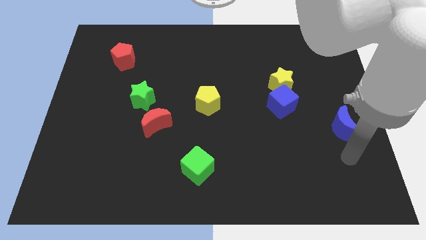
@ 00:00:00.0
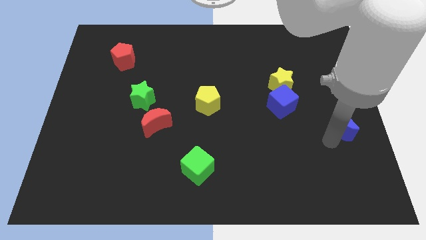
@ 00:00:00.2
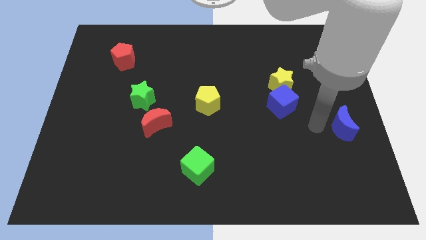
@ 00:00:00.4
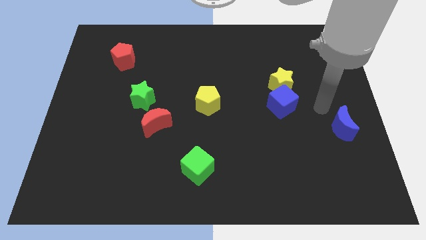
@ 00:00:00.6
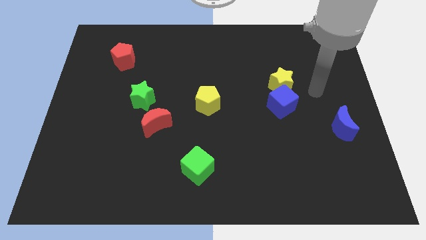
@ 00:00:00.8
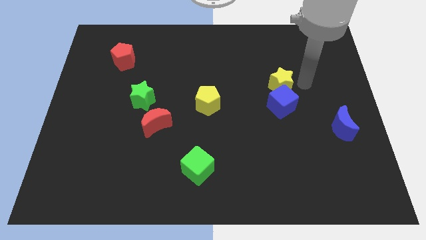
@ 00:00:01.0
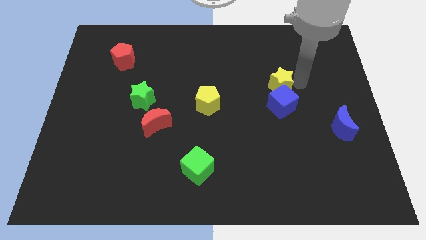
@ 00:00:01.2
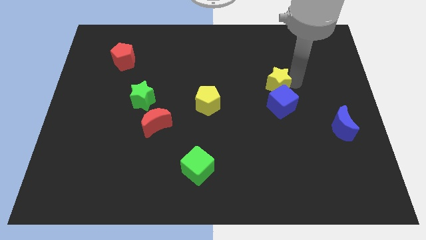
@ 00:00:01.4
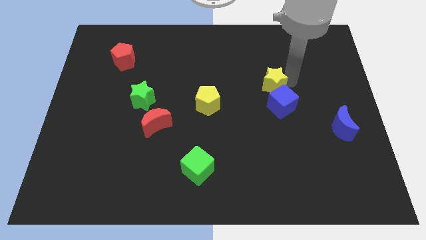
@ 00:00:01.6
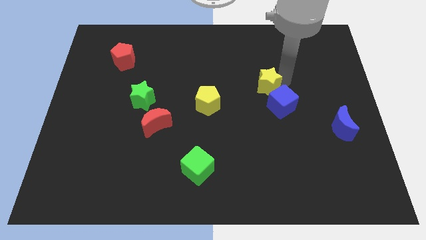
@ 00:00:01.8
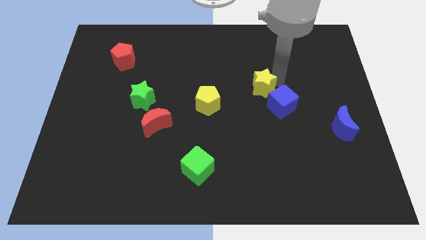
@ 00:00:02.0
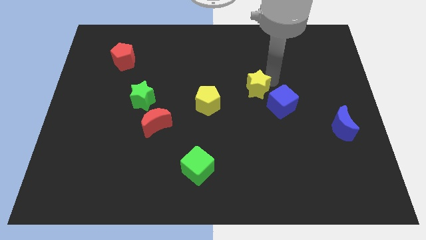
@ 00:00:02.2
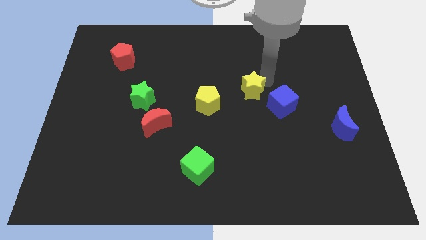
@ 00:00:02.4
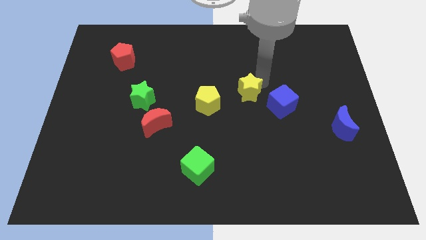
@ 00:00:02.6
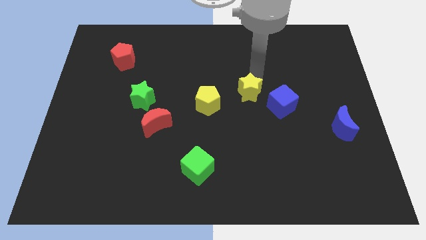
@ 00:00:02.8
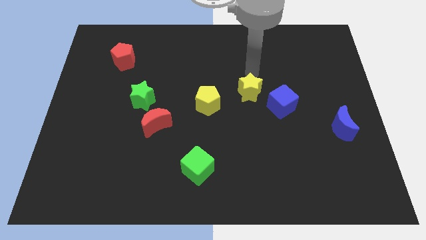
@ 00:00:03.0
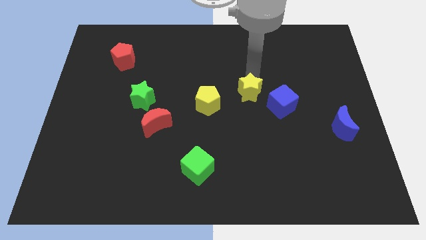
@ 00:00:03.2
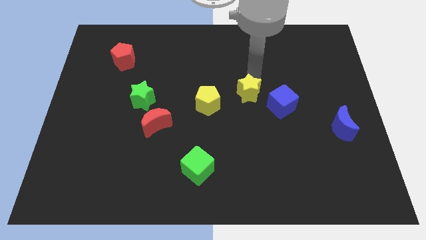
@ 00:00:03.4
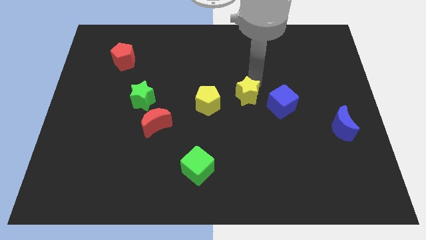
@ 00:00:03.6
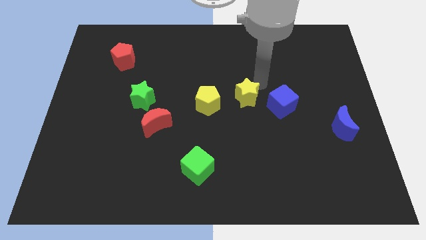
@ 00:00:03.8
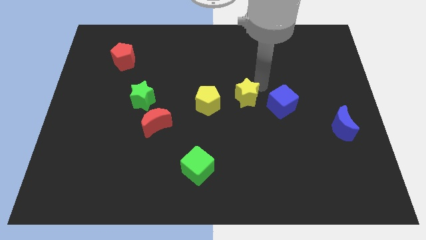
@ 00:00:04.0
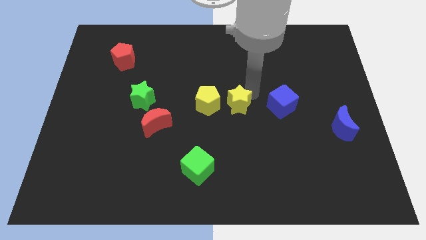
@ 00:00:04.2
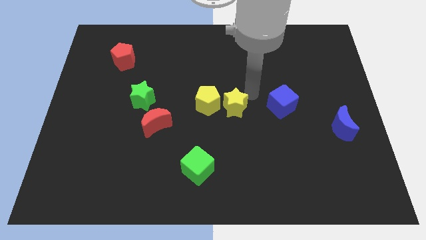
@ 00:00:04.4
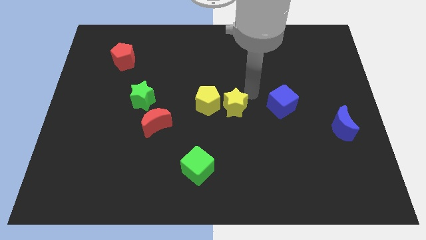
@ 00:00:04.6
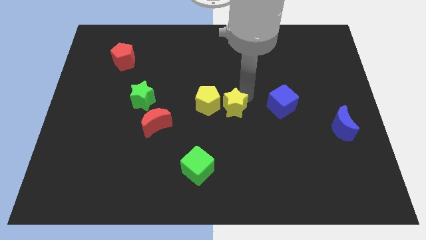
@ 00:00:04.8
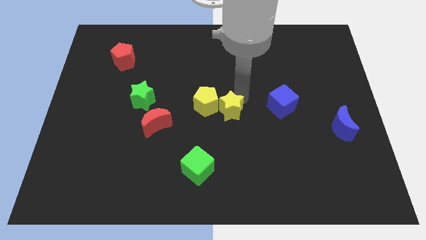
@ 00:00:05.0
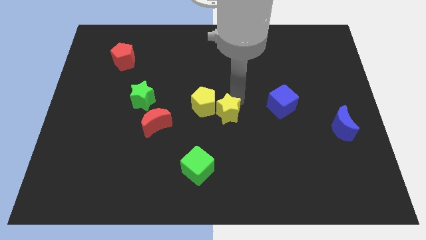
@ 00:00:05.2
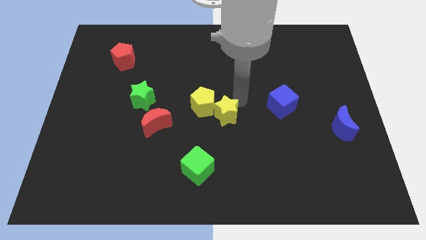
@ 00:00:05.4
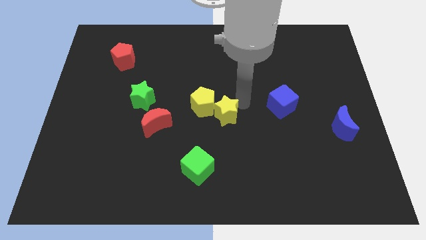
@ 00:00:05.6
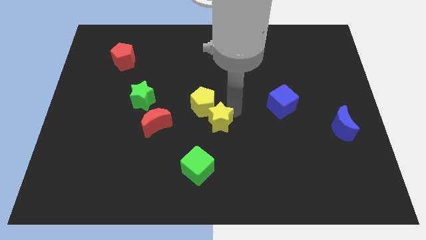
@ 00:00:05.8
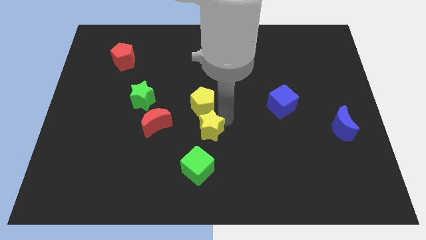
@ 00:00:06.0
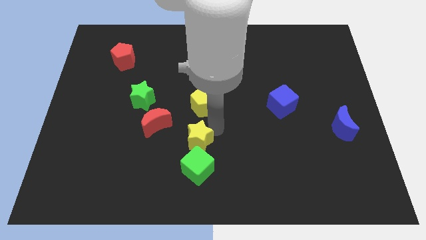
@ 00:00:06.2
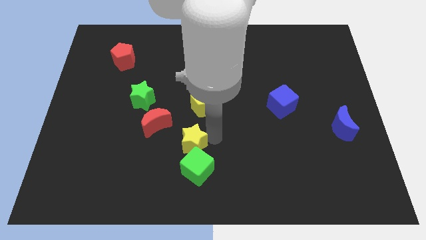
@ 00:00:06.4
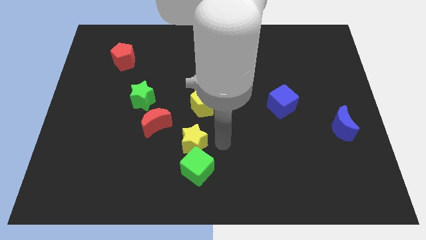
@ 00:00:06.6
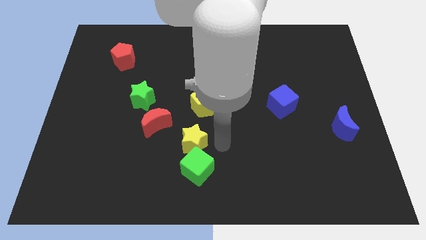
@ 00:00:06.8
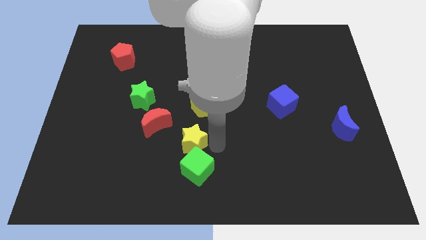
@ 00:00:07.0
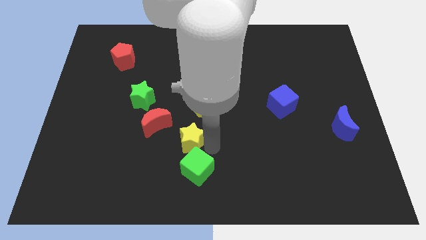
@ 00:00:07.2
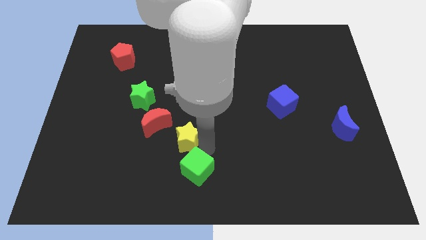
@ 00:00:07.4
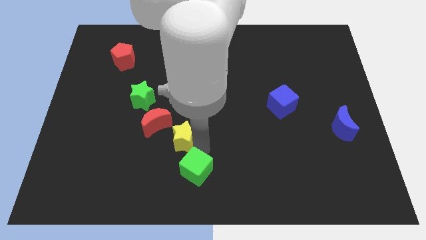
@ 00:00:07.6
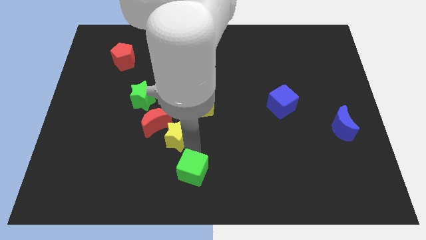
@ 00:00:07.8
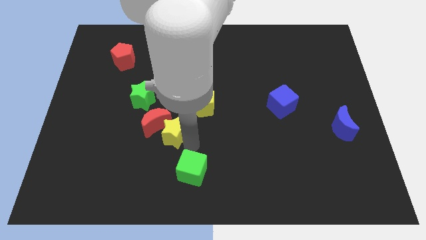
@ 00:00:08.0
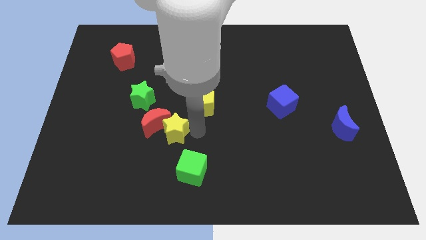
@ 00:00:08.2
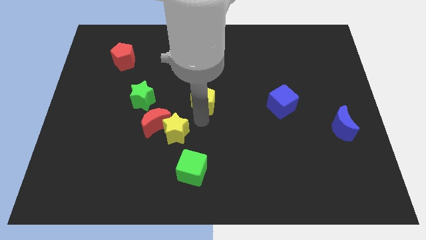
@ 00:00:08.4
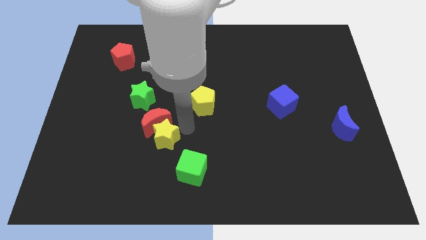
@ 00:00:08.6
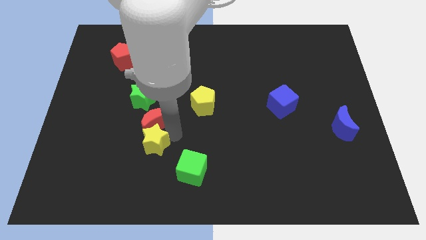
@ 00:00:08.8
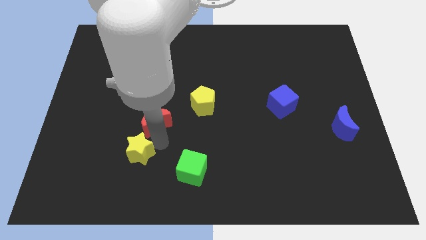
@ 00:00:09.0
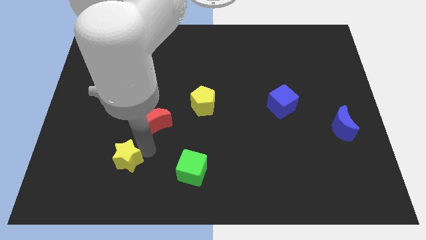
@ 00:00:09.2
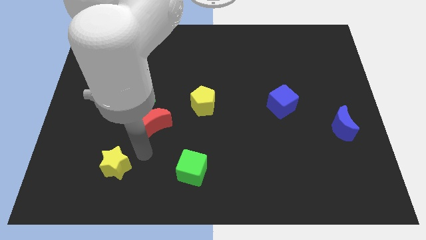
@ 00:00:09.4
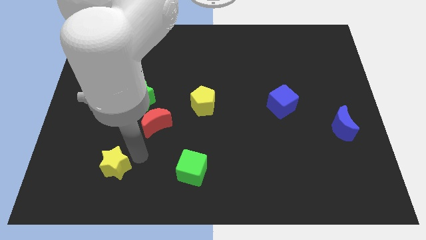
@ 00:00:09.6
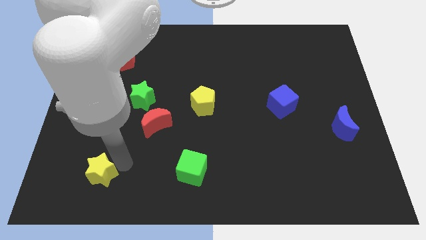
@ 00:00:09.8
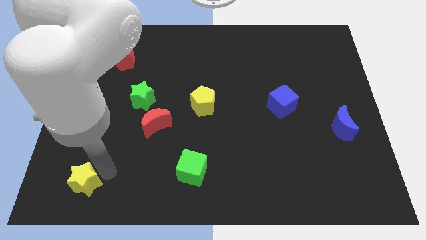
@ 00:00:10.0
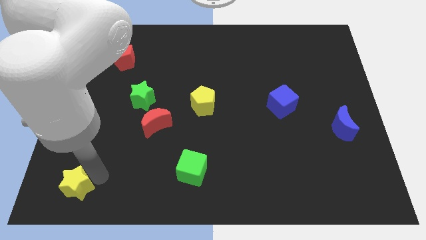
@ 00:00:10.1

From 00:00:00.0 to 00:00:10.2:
slide the yellow star to the lower left corner

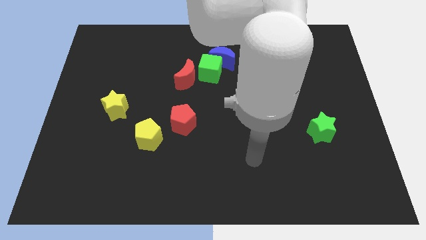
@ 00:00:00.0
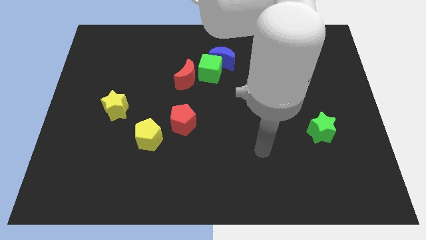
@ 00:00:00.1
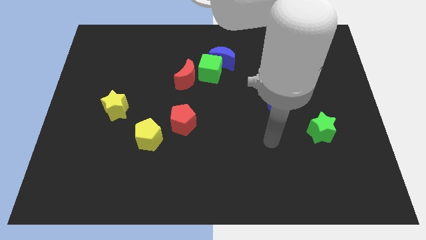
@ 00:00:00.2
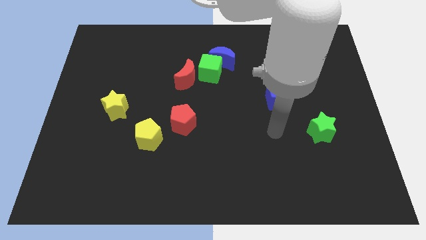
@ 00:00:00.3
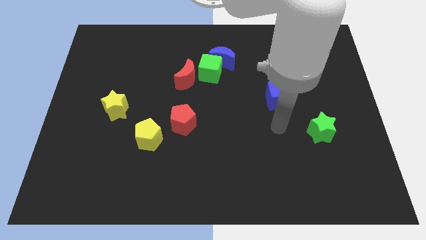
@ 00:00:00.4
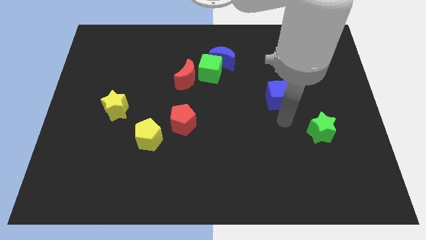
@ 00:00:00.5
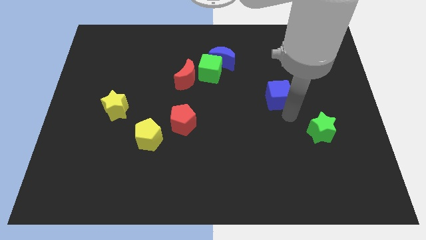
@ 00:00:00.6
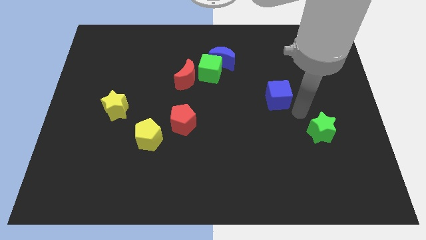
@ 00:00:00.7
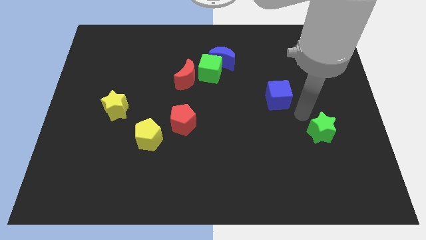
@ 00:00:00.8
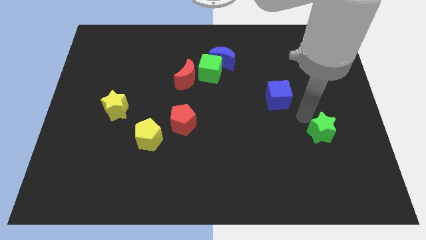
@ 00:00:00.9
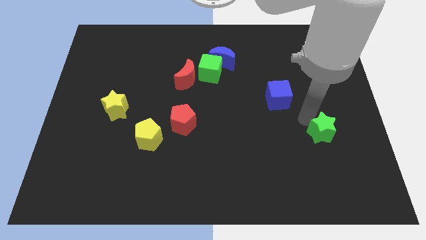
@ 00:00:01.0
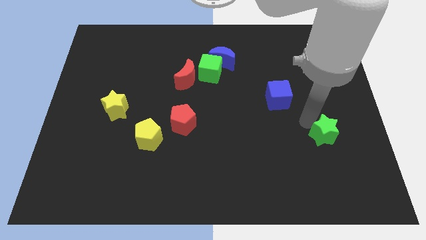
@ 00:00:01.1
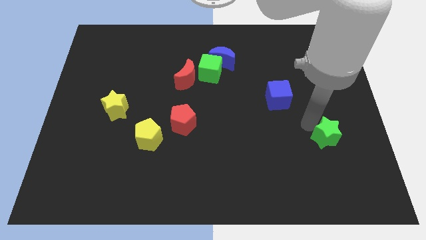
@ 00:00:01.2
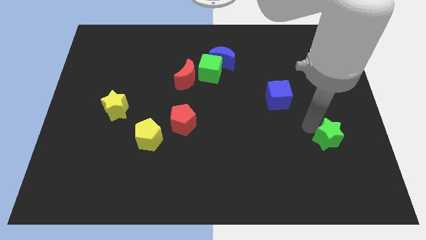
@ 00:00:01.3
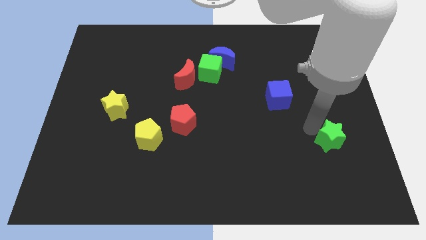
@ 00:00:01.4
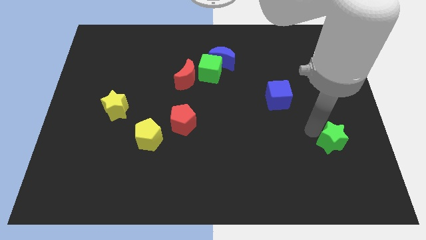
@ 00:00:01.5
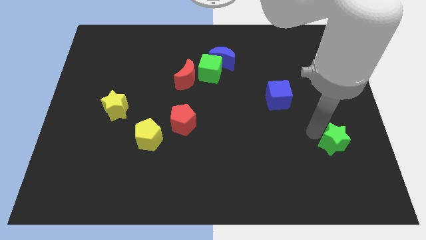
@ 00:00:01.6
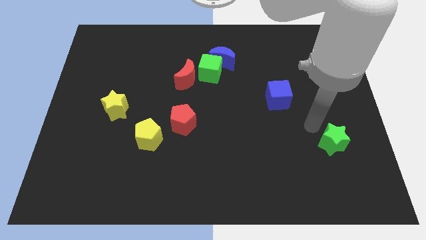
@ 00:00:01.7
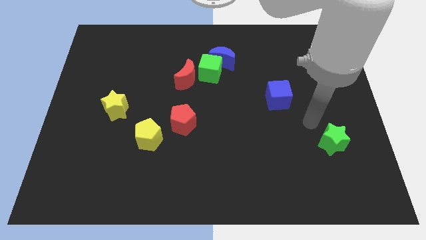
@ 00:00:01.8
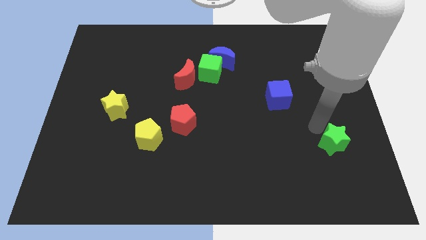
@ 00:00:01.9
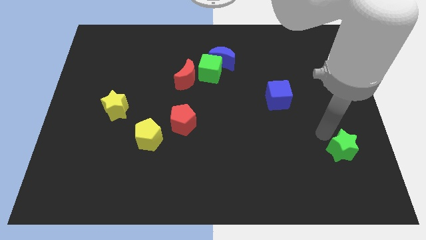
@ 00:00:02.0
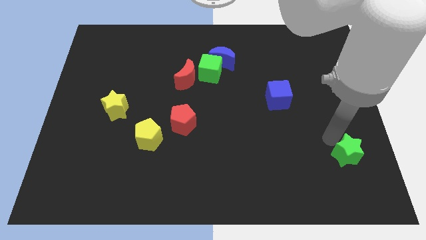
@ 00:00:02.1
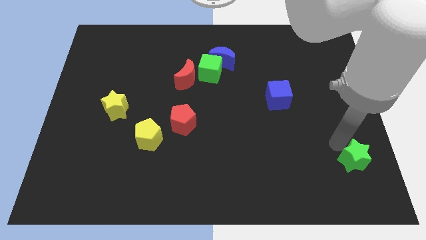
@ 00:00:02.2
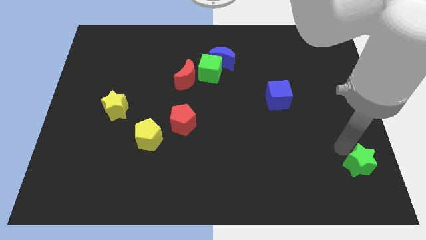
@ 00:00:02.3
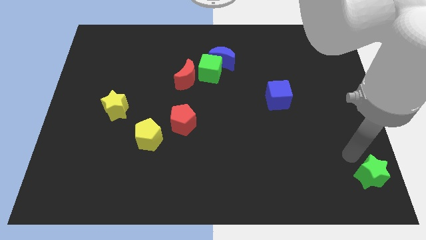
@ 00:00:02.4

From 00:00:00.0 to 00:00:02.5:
slide the green star to the bottom right
